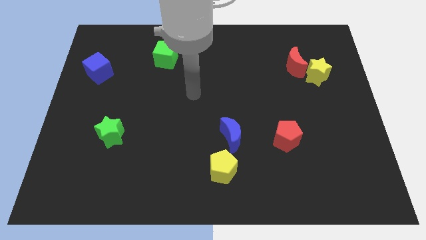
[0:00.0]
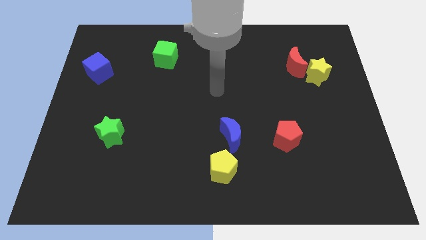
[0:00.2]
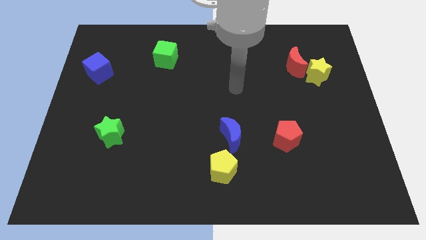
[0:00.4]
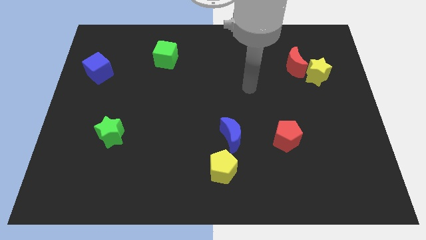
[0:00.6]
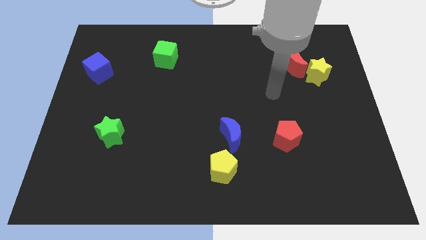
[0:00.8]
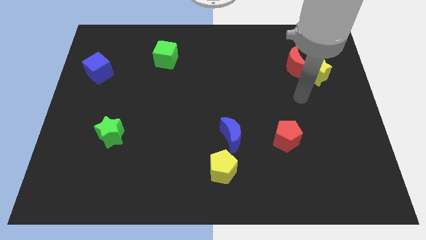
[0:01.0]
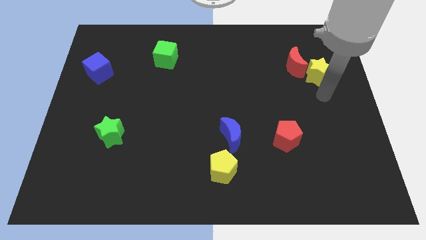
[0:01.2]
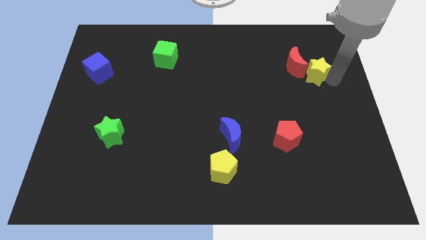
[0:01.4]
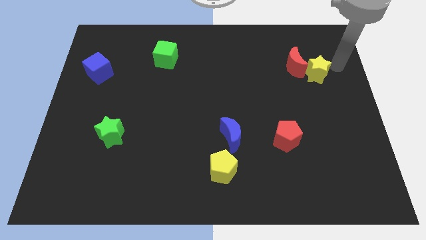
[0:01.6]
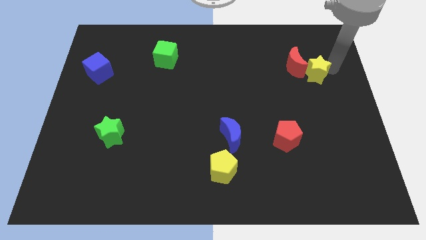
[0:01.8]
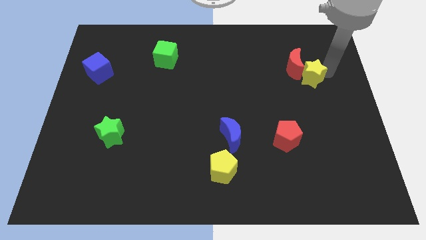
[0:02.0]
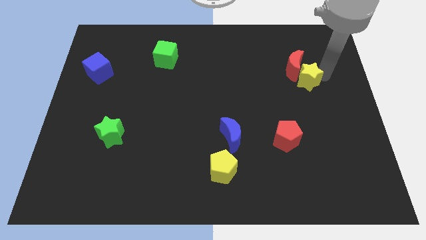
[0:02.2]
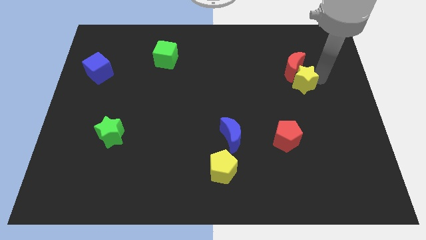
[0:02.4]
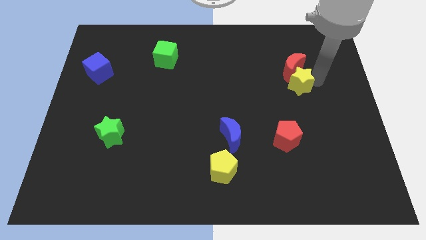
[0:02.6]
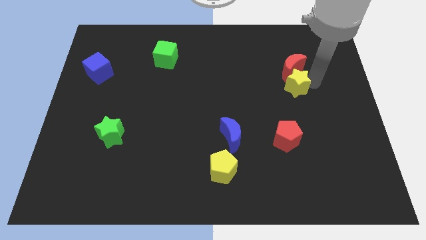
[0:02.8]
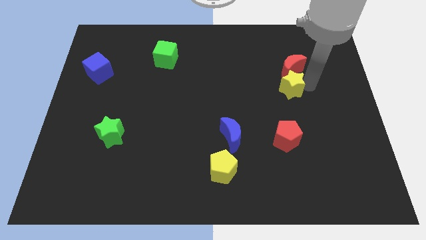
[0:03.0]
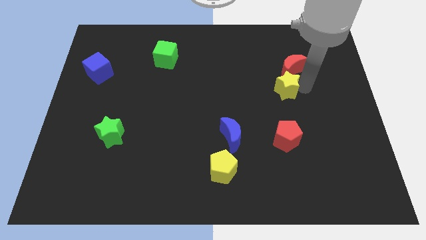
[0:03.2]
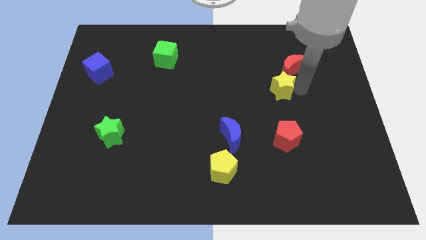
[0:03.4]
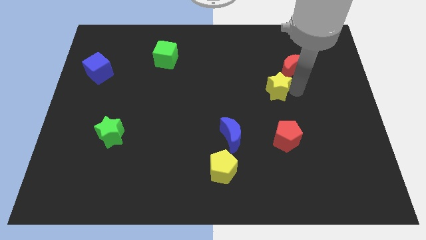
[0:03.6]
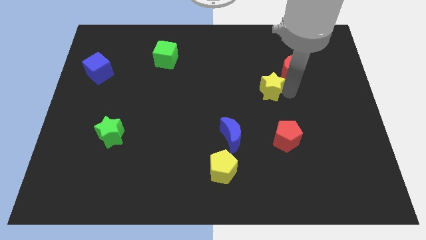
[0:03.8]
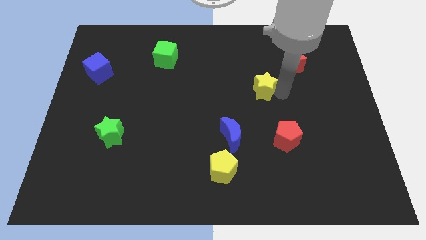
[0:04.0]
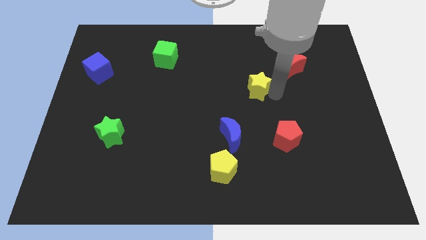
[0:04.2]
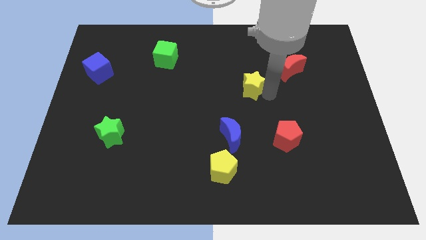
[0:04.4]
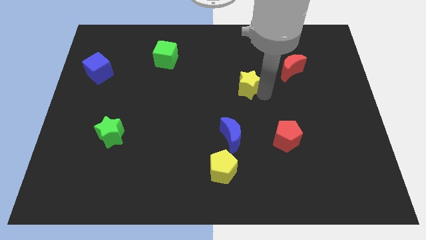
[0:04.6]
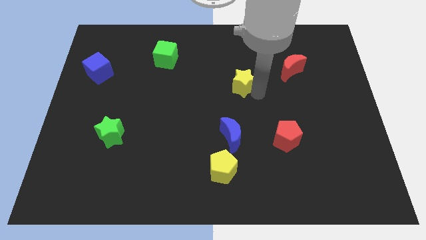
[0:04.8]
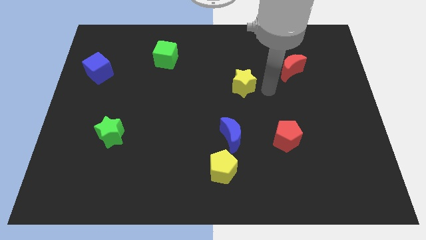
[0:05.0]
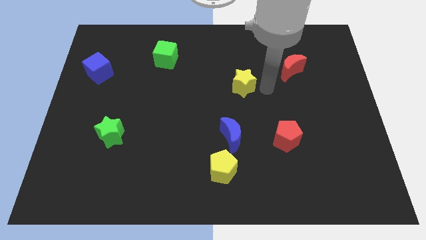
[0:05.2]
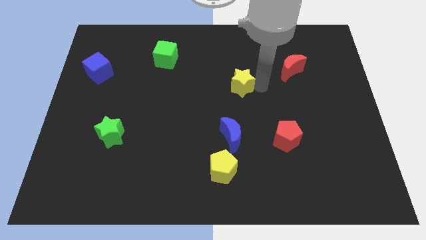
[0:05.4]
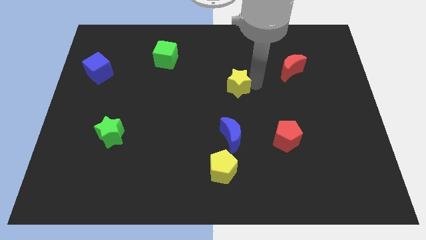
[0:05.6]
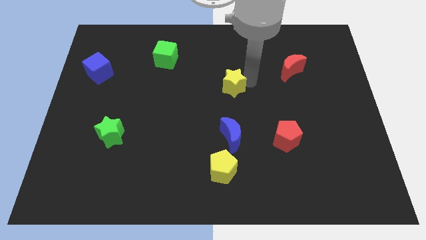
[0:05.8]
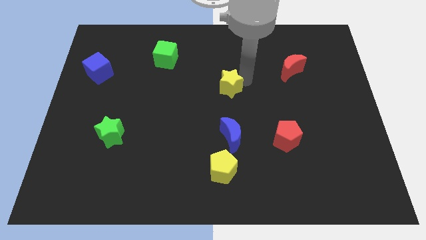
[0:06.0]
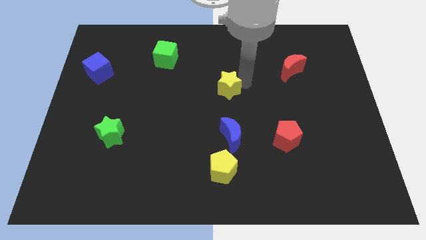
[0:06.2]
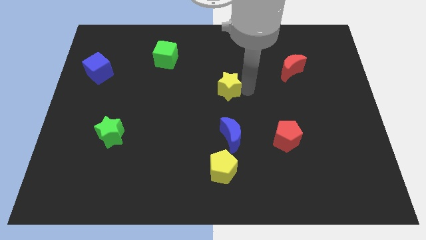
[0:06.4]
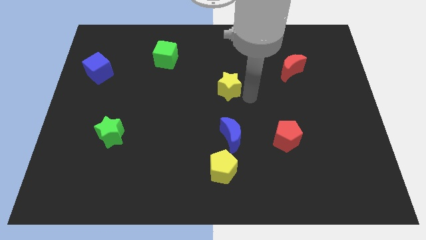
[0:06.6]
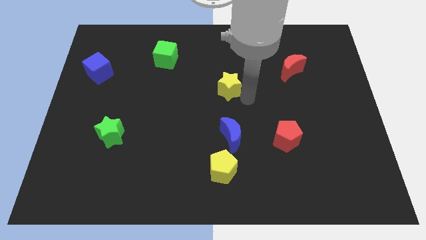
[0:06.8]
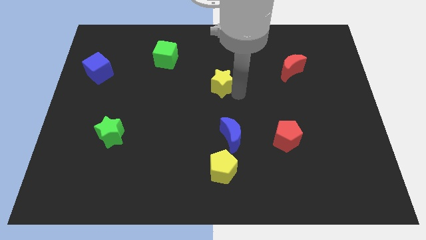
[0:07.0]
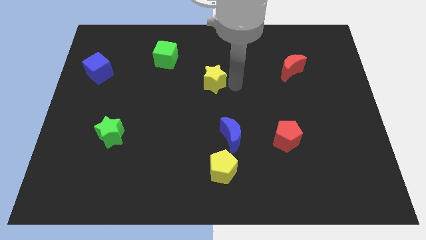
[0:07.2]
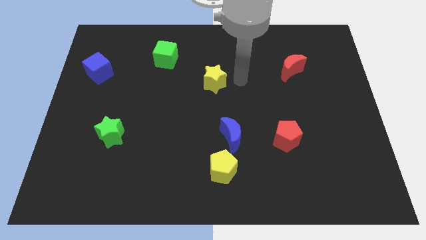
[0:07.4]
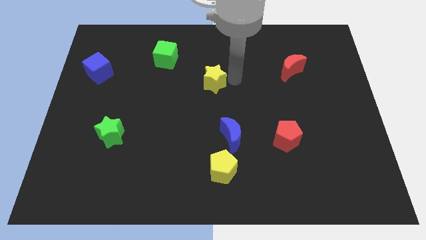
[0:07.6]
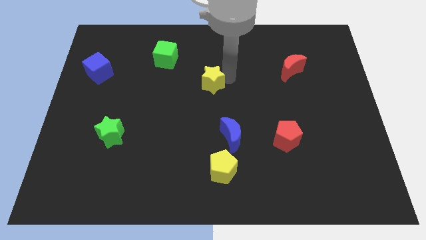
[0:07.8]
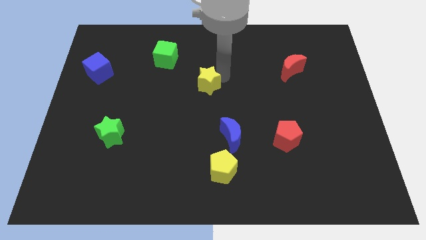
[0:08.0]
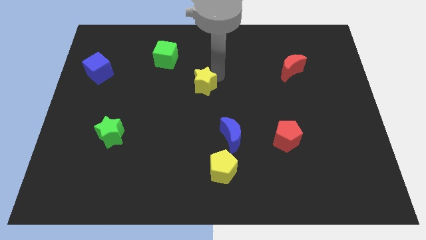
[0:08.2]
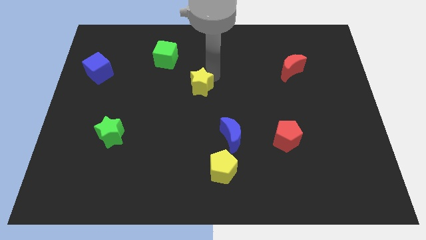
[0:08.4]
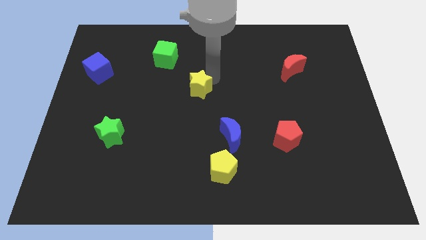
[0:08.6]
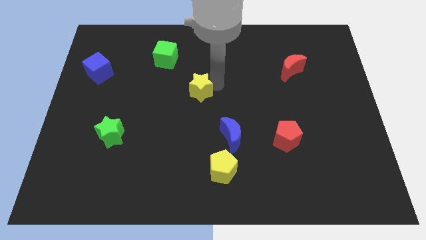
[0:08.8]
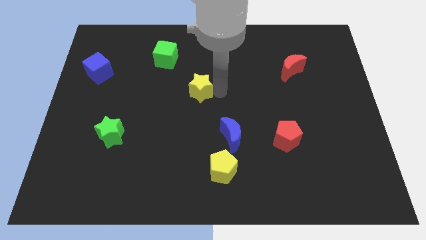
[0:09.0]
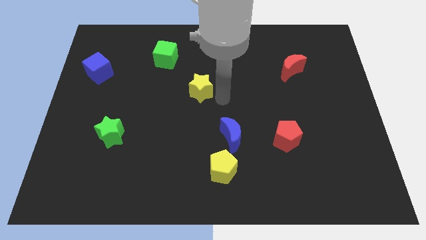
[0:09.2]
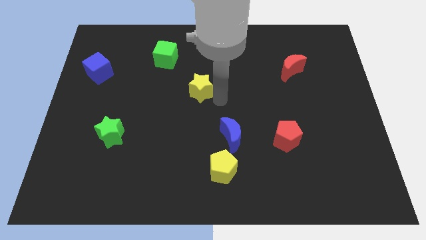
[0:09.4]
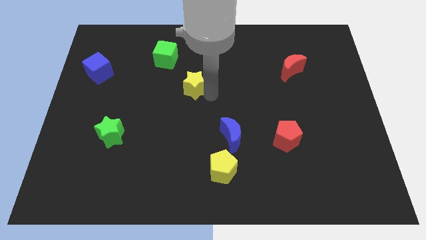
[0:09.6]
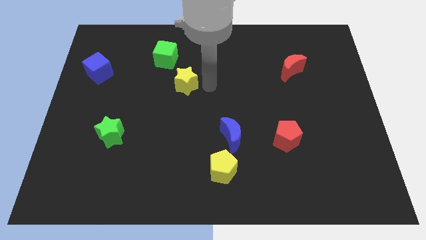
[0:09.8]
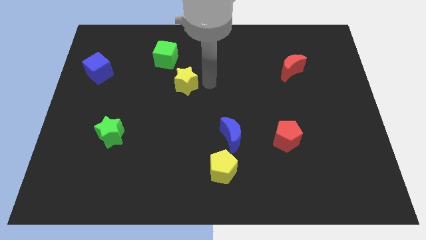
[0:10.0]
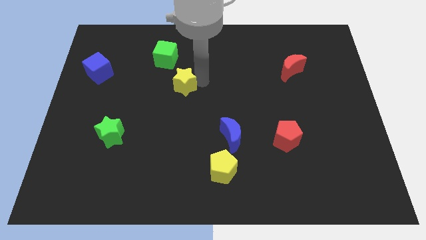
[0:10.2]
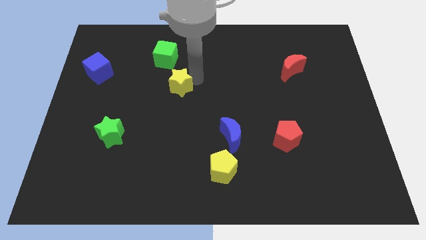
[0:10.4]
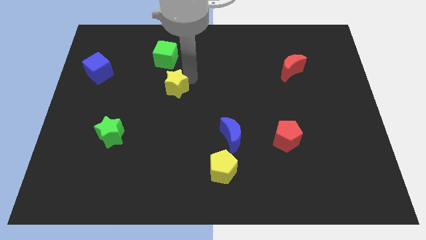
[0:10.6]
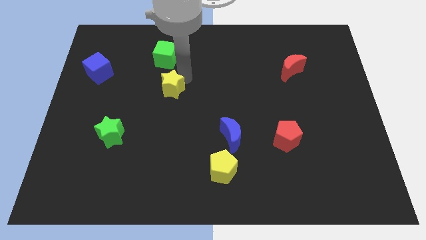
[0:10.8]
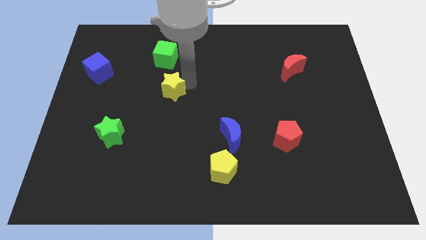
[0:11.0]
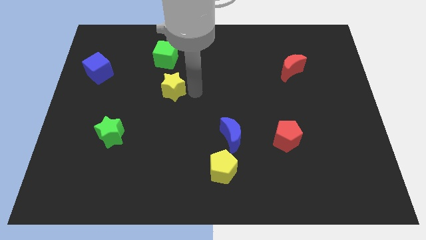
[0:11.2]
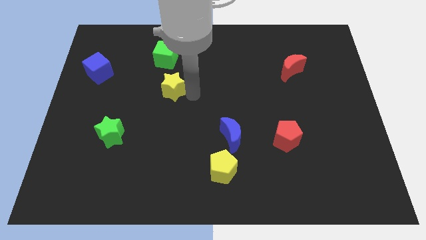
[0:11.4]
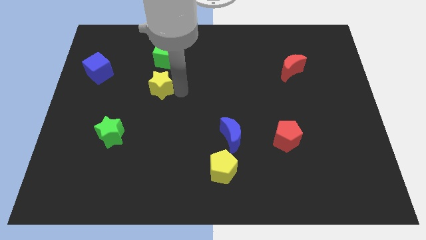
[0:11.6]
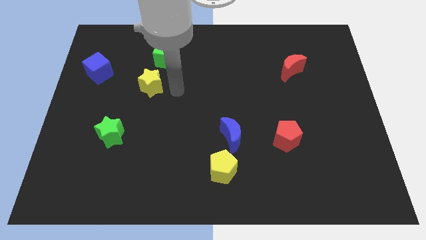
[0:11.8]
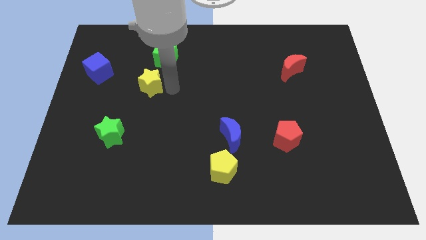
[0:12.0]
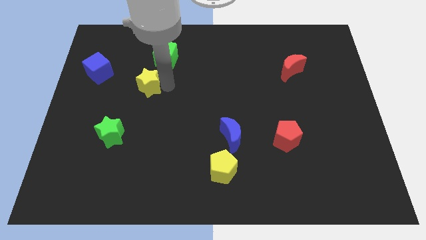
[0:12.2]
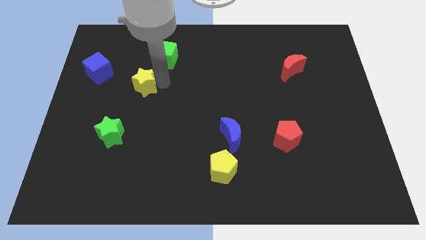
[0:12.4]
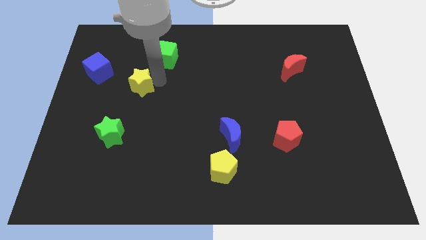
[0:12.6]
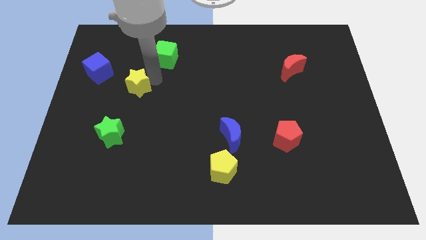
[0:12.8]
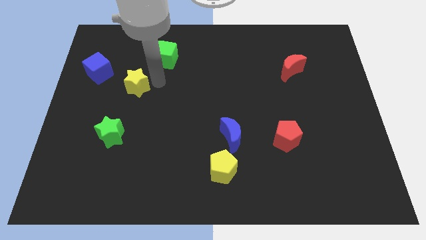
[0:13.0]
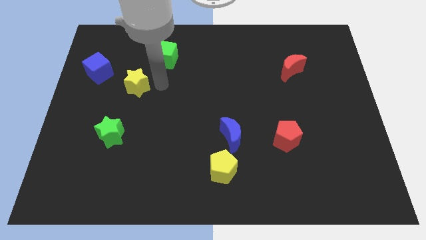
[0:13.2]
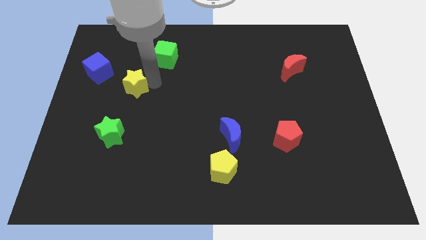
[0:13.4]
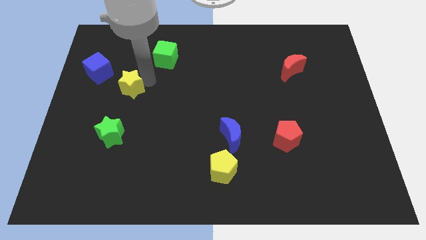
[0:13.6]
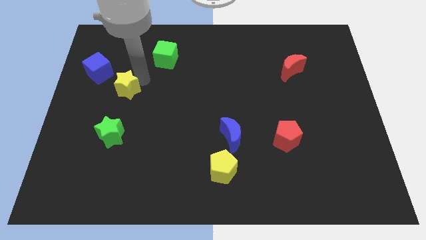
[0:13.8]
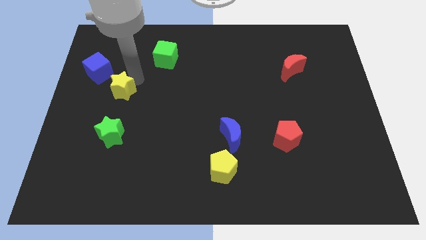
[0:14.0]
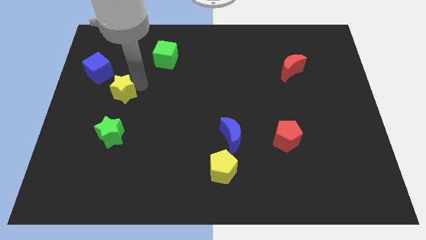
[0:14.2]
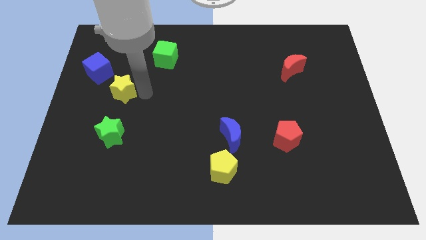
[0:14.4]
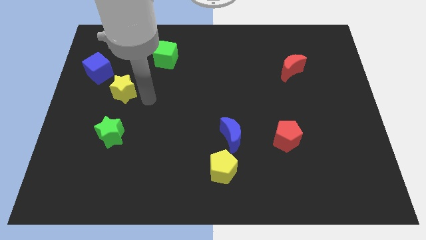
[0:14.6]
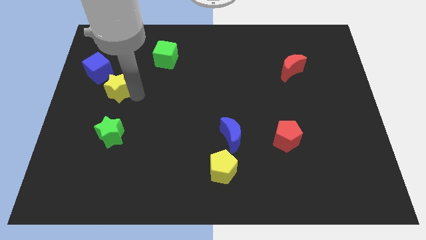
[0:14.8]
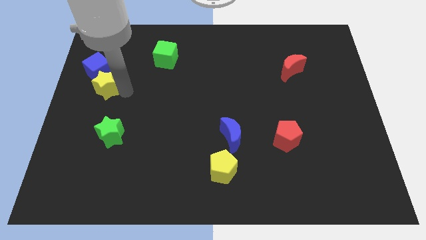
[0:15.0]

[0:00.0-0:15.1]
put the yellow star to the left side
